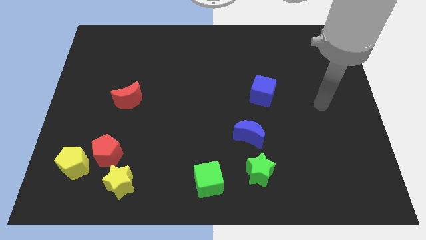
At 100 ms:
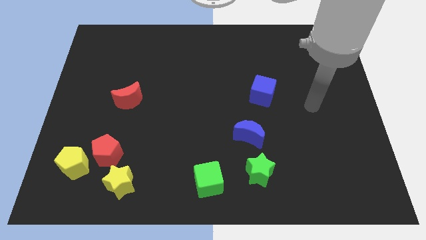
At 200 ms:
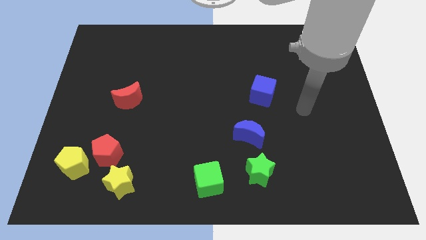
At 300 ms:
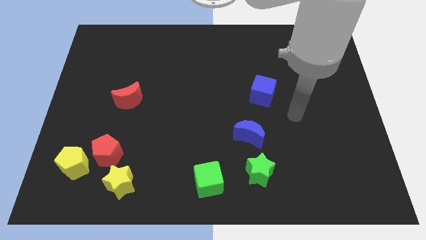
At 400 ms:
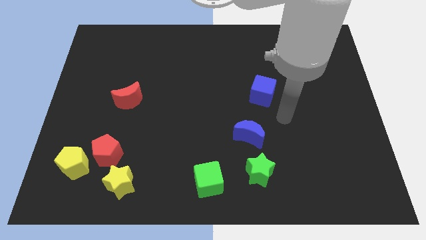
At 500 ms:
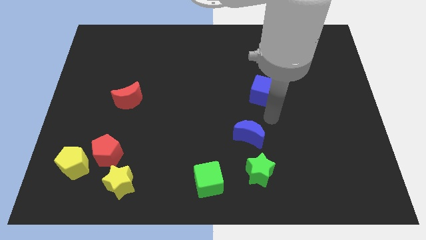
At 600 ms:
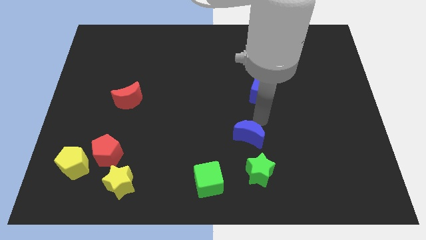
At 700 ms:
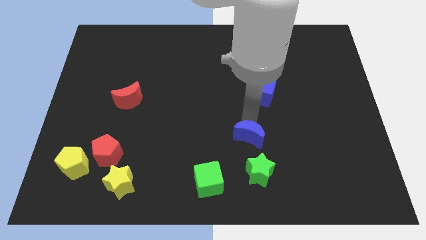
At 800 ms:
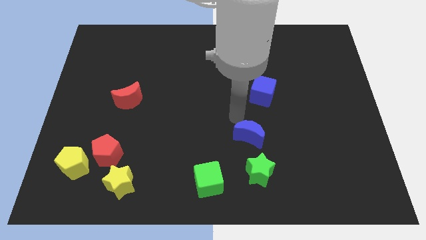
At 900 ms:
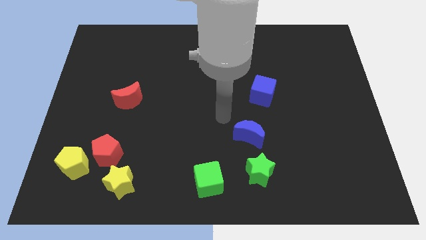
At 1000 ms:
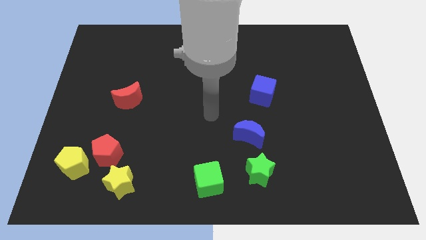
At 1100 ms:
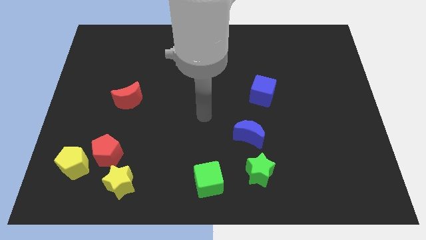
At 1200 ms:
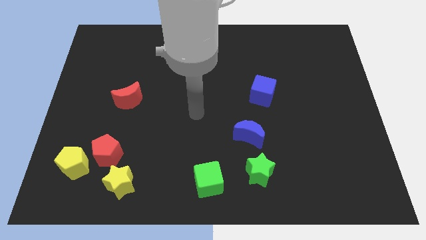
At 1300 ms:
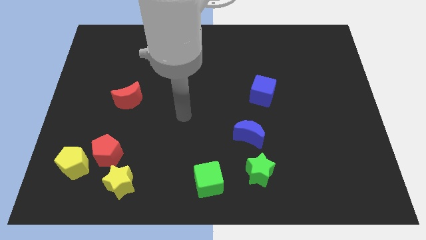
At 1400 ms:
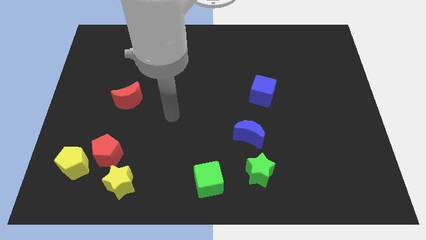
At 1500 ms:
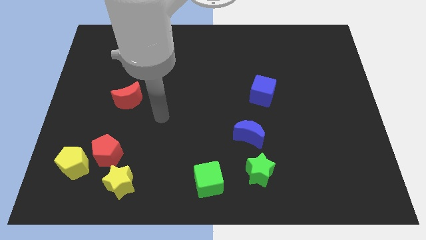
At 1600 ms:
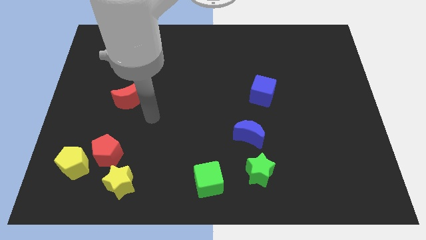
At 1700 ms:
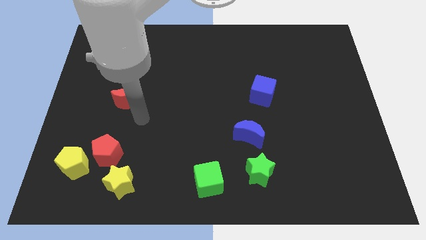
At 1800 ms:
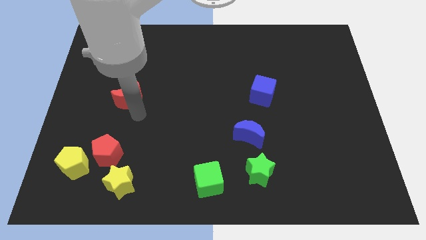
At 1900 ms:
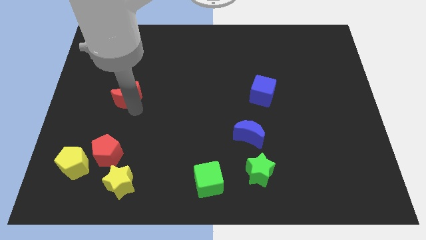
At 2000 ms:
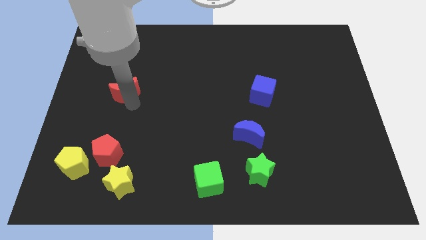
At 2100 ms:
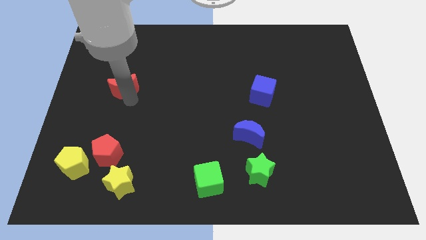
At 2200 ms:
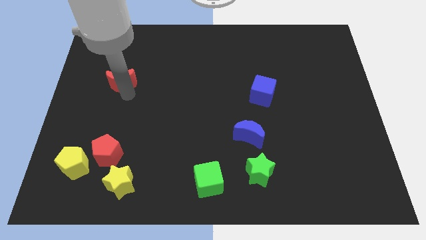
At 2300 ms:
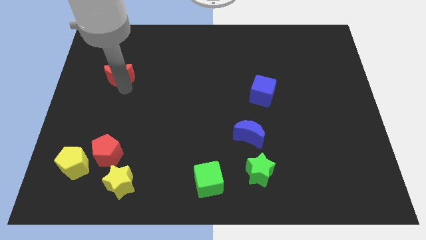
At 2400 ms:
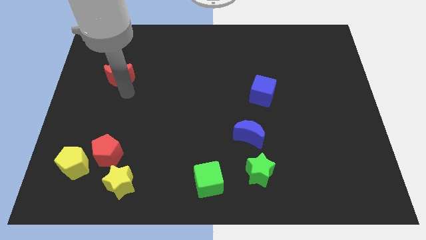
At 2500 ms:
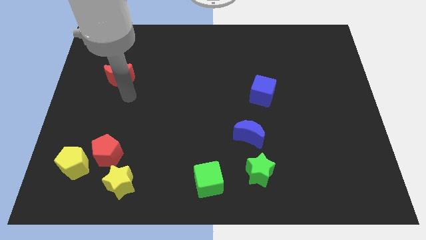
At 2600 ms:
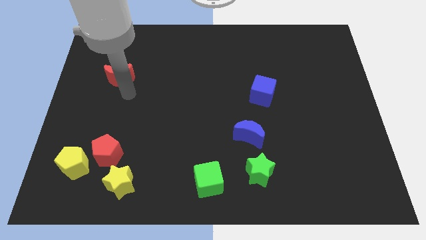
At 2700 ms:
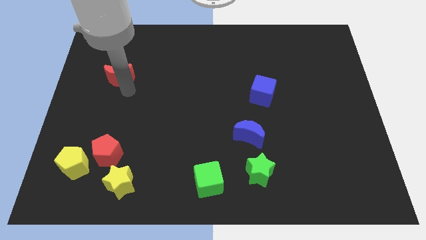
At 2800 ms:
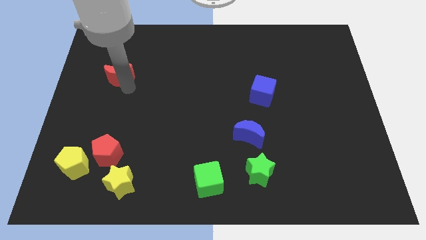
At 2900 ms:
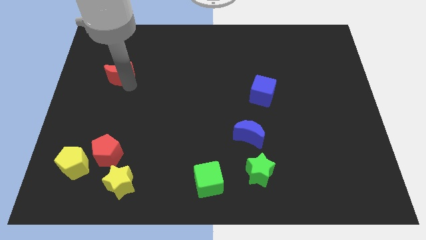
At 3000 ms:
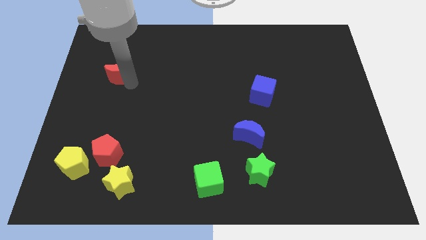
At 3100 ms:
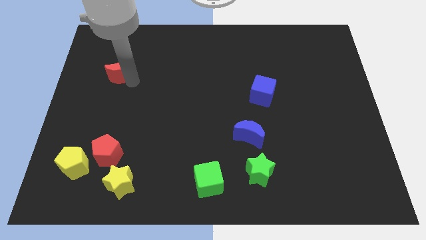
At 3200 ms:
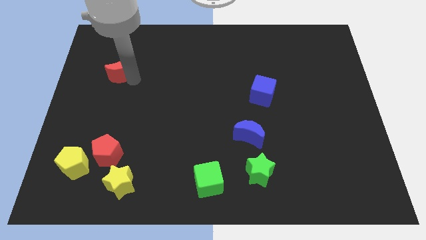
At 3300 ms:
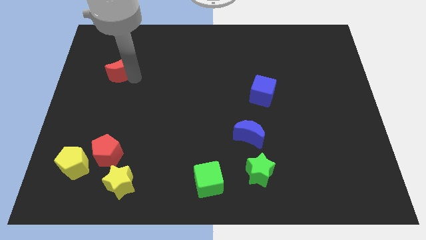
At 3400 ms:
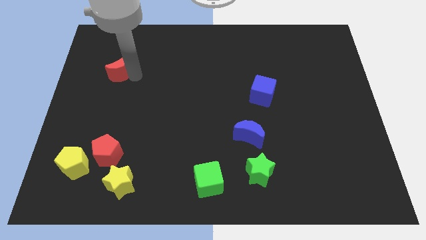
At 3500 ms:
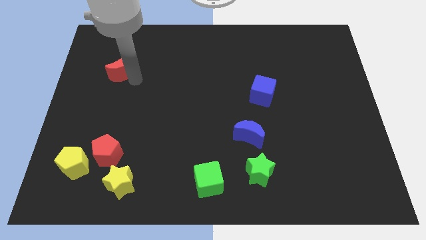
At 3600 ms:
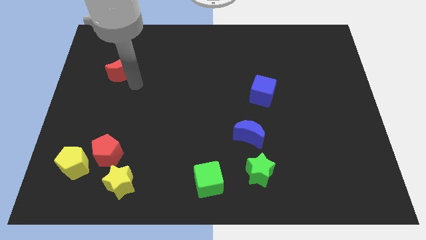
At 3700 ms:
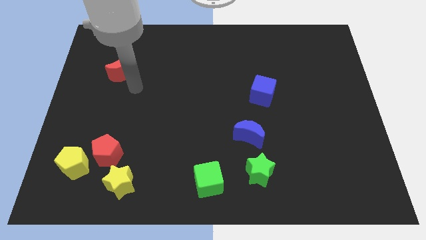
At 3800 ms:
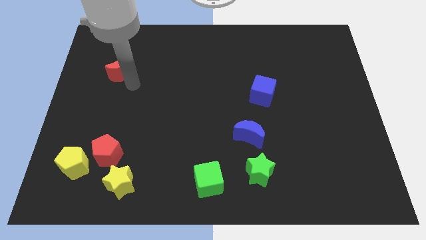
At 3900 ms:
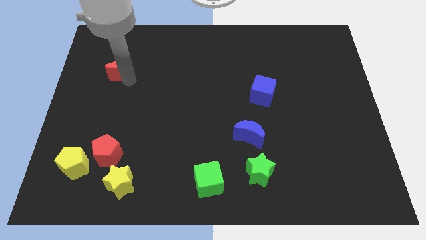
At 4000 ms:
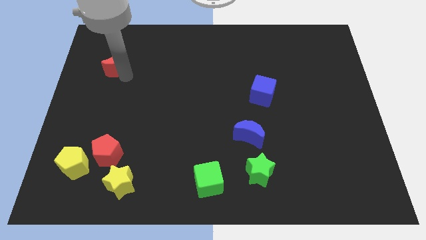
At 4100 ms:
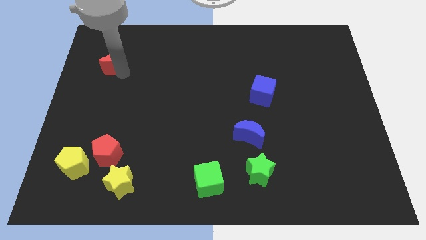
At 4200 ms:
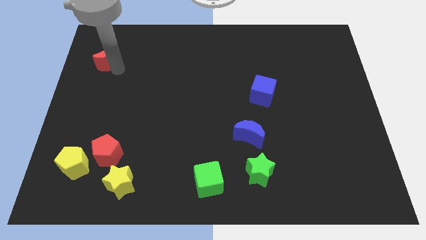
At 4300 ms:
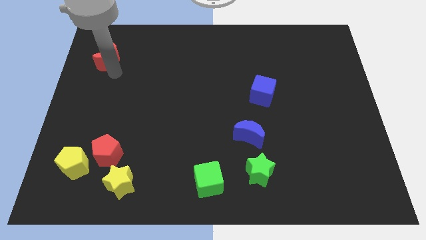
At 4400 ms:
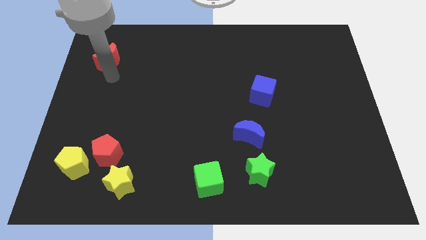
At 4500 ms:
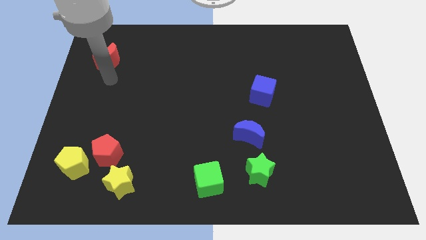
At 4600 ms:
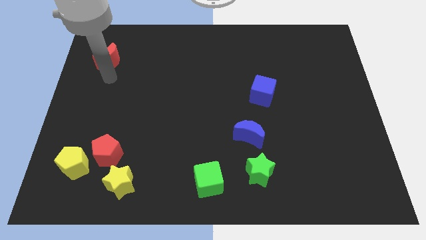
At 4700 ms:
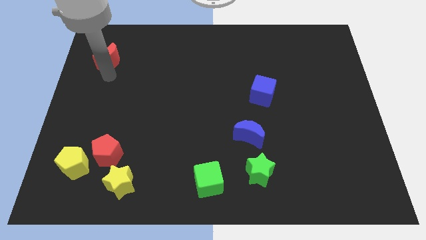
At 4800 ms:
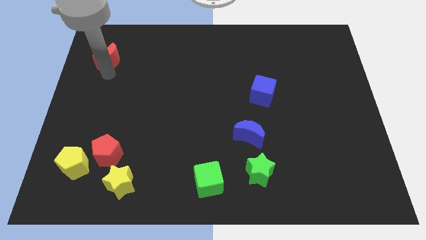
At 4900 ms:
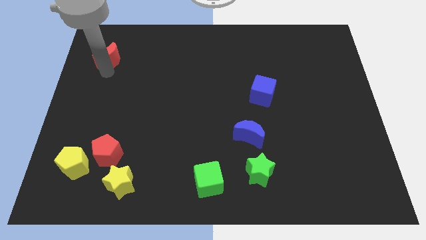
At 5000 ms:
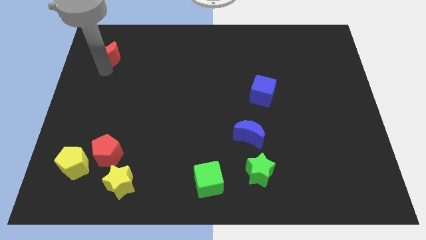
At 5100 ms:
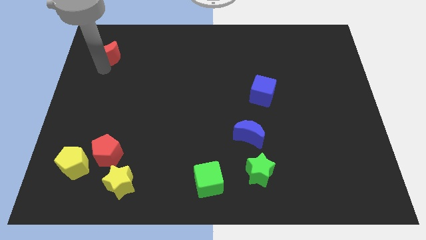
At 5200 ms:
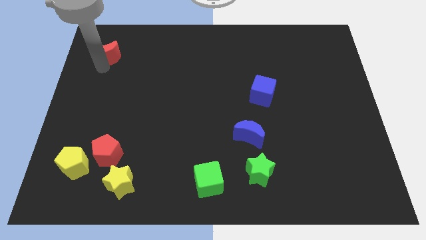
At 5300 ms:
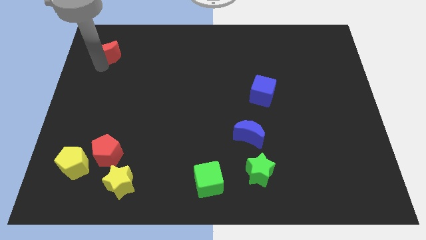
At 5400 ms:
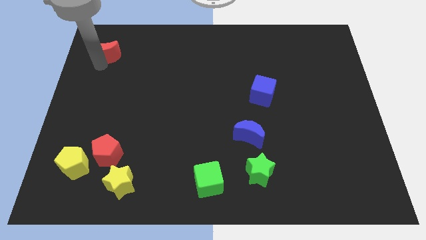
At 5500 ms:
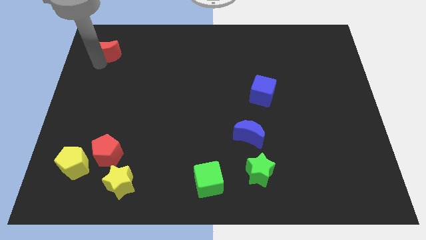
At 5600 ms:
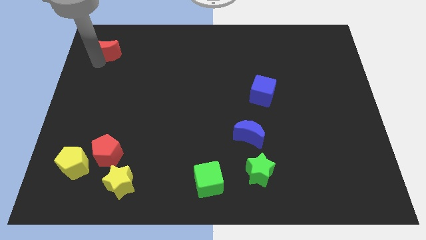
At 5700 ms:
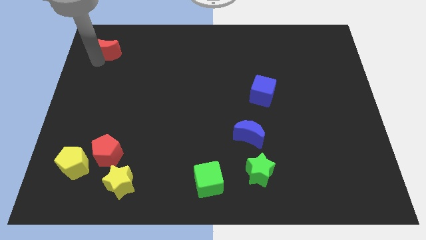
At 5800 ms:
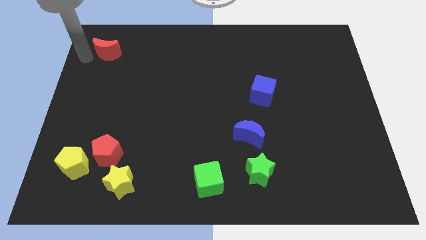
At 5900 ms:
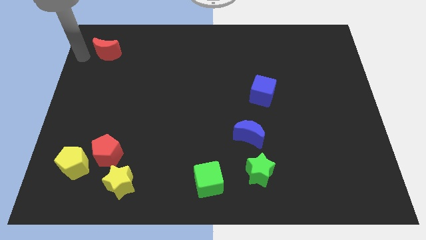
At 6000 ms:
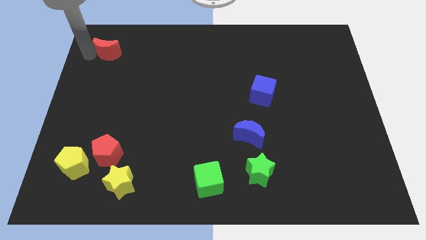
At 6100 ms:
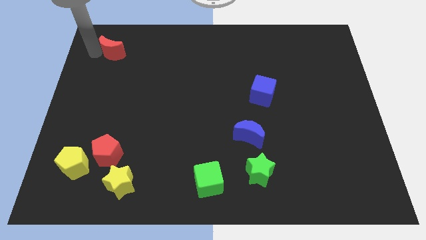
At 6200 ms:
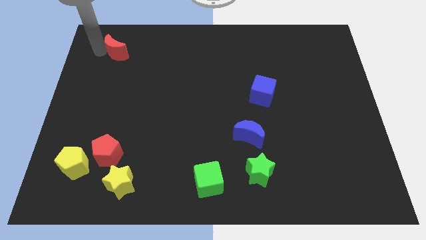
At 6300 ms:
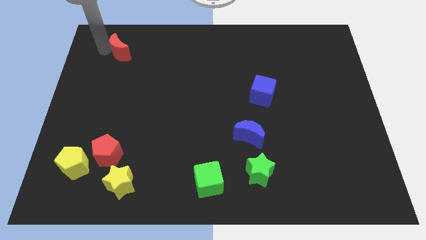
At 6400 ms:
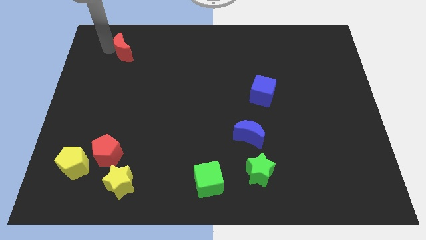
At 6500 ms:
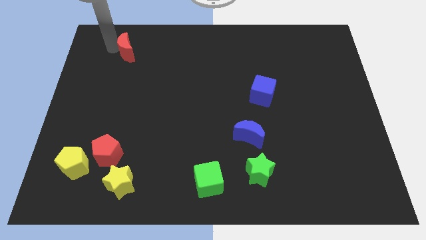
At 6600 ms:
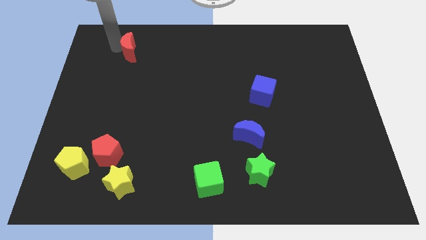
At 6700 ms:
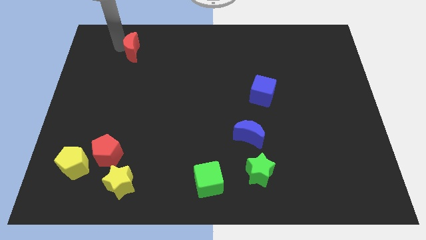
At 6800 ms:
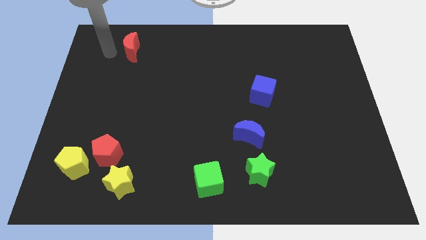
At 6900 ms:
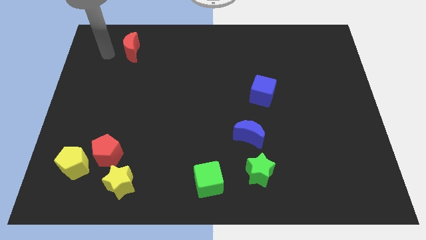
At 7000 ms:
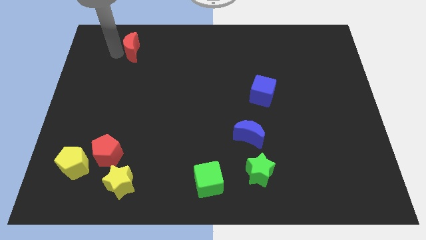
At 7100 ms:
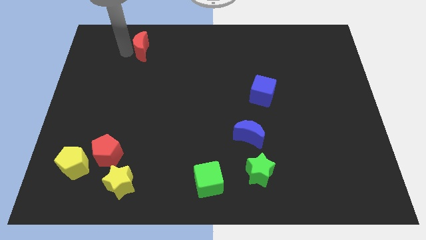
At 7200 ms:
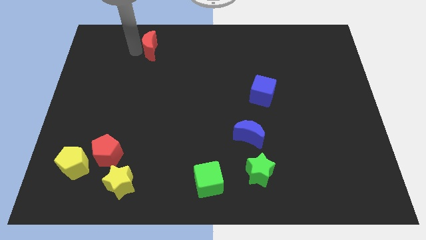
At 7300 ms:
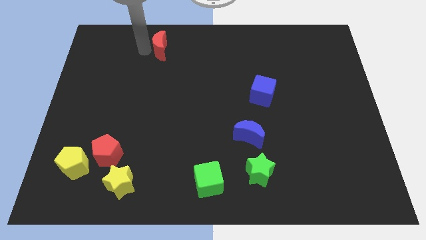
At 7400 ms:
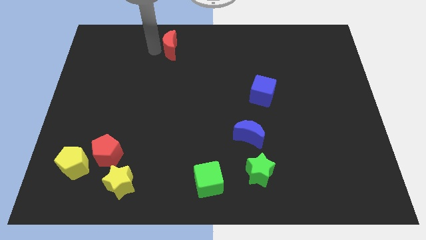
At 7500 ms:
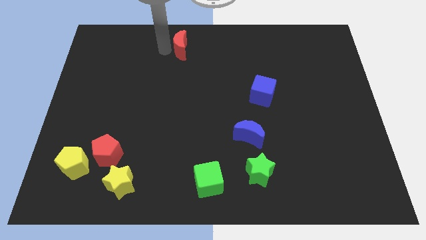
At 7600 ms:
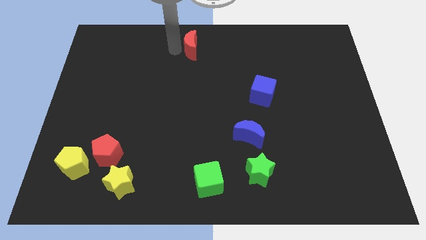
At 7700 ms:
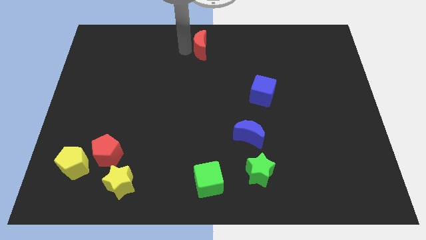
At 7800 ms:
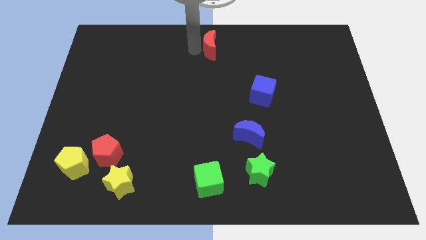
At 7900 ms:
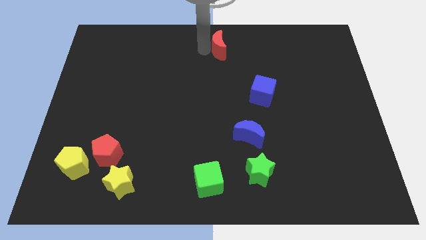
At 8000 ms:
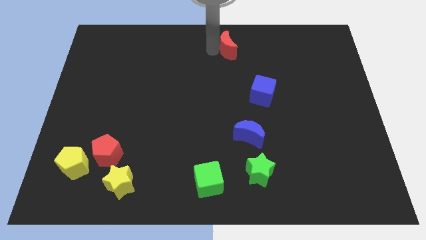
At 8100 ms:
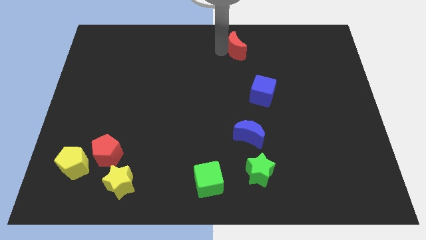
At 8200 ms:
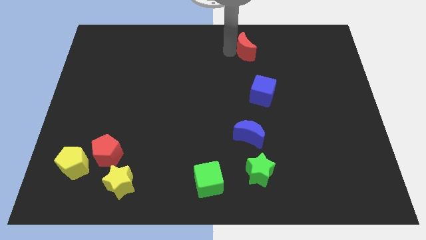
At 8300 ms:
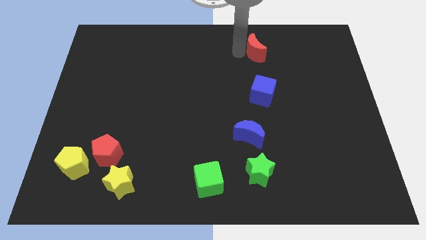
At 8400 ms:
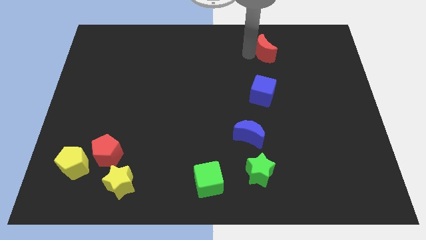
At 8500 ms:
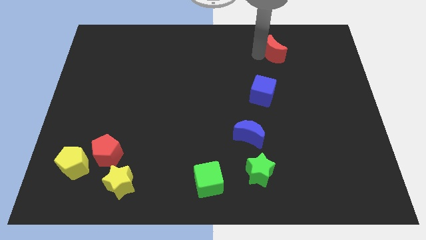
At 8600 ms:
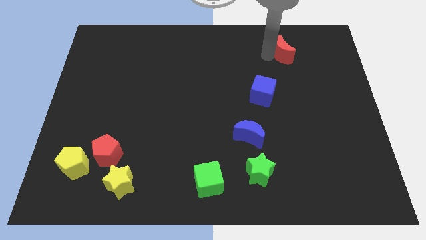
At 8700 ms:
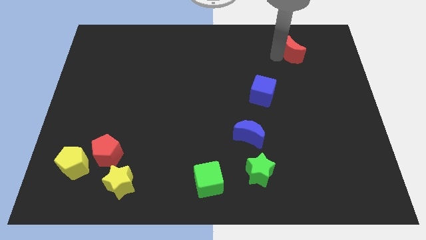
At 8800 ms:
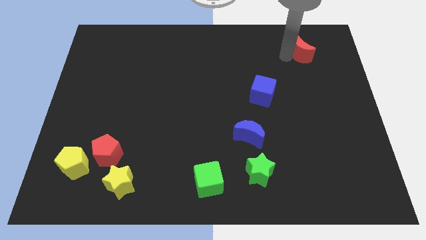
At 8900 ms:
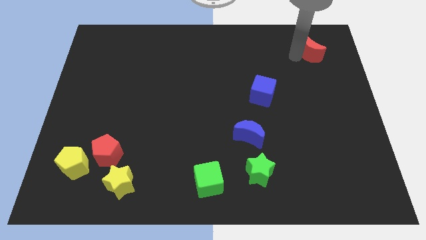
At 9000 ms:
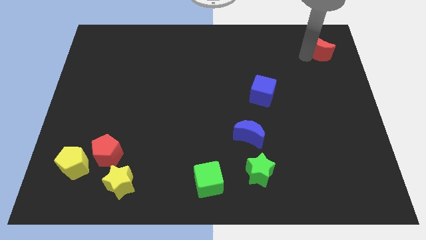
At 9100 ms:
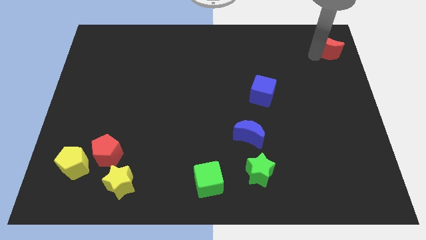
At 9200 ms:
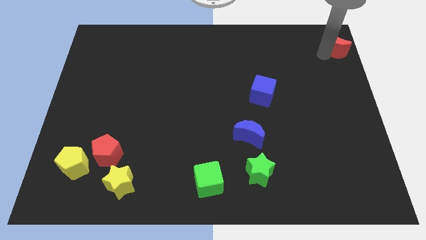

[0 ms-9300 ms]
move the red moon to the top right corner
